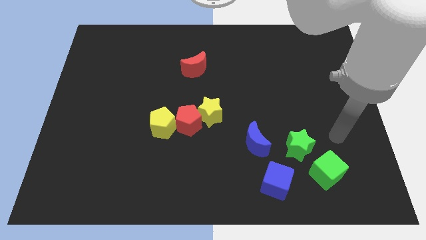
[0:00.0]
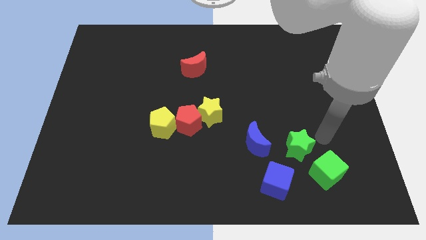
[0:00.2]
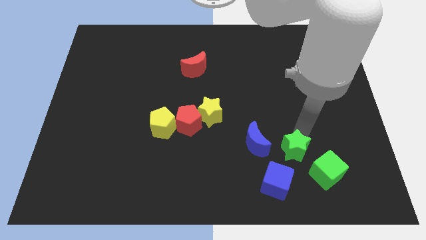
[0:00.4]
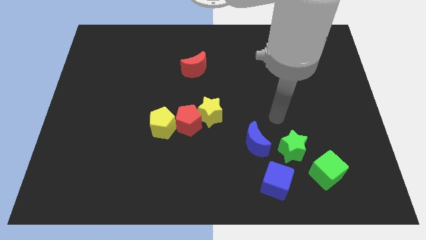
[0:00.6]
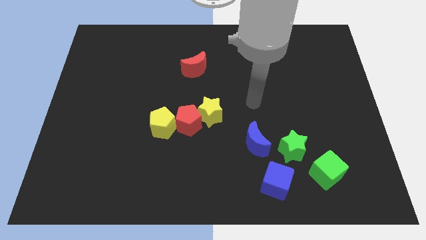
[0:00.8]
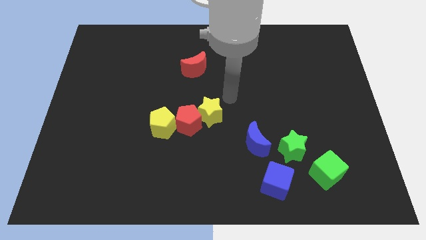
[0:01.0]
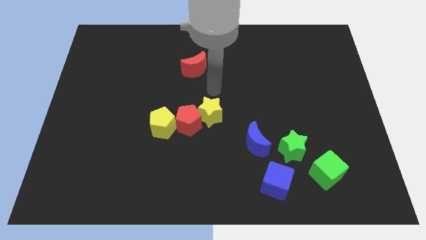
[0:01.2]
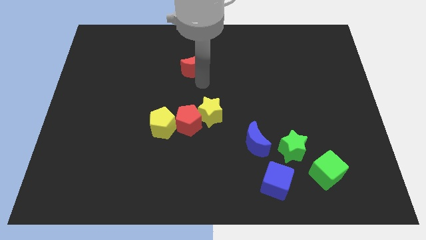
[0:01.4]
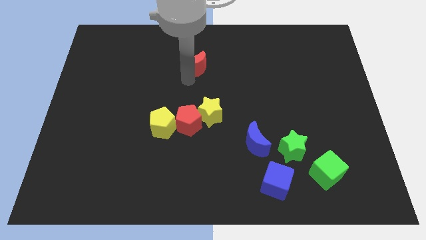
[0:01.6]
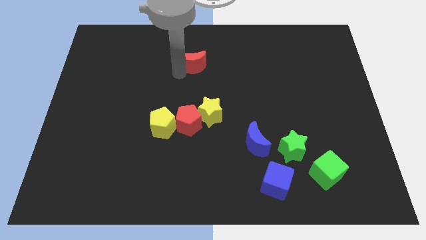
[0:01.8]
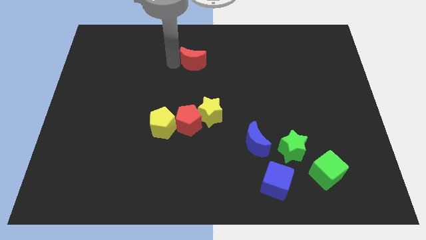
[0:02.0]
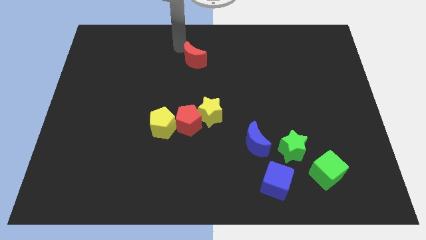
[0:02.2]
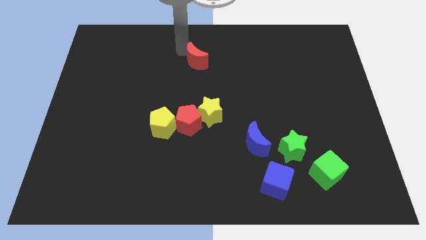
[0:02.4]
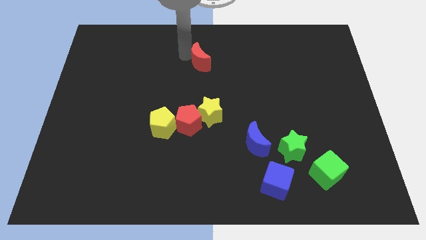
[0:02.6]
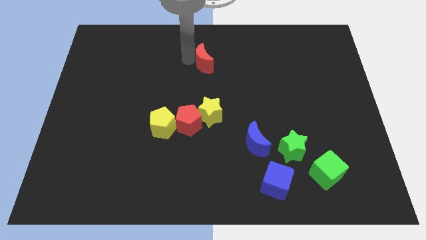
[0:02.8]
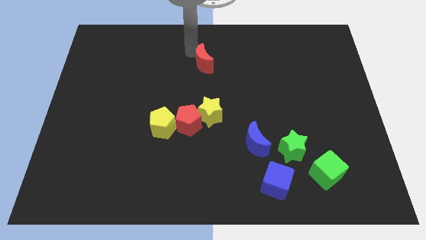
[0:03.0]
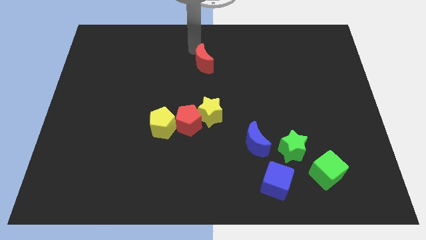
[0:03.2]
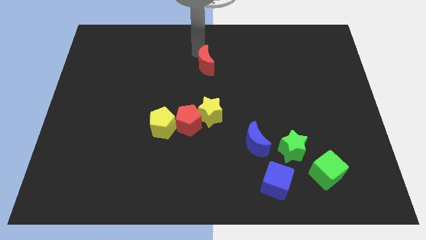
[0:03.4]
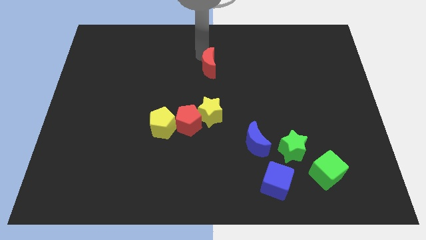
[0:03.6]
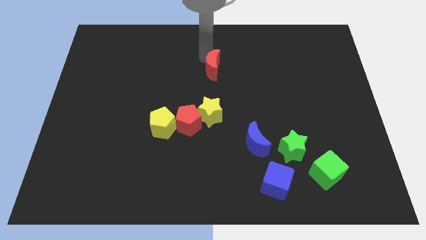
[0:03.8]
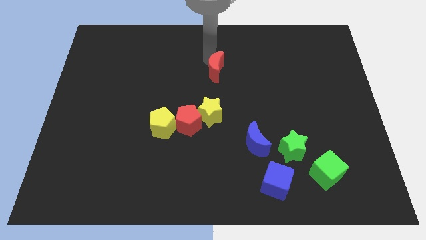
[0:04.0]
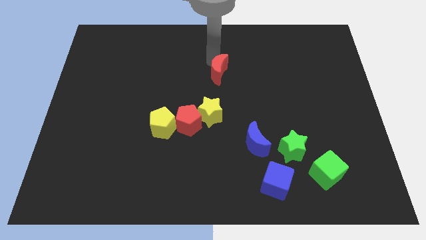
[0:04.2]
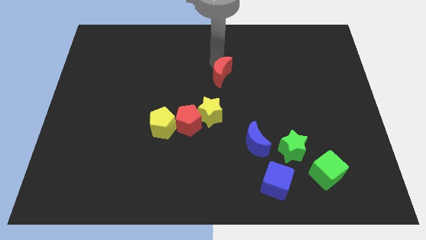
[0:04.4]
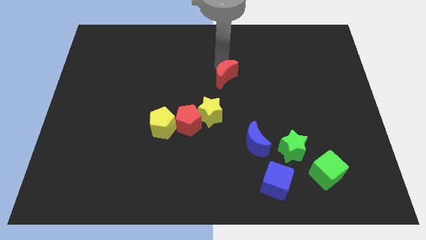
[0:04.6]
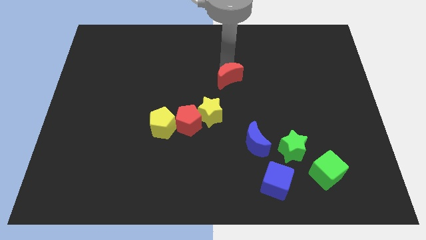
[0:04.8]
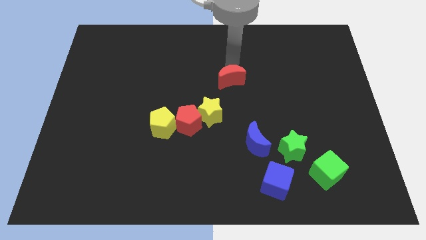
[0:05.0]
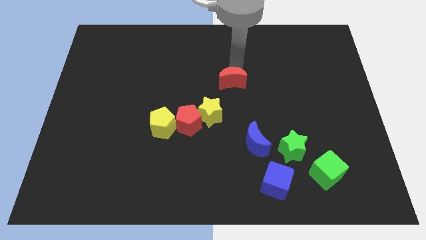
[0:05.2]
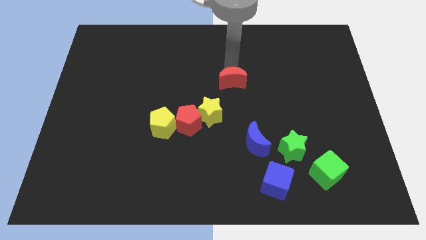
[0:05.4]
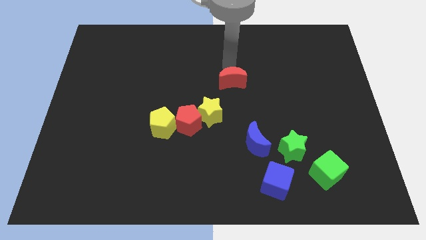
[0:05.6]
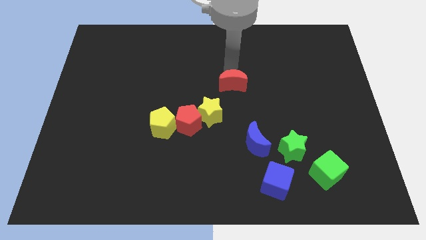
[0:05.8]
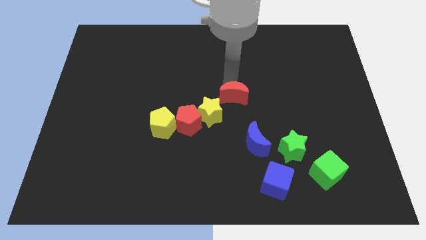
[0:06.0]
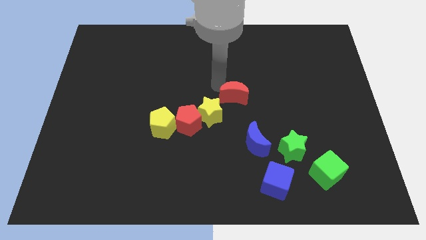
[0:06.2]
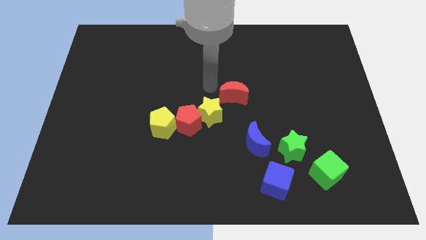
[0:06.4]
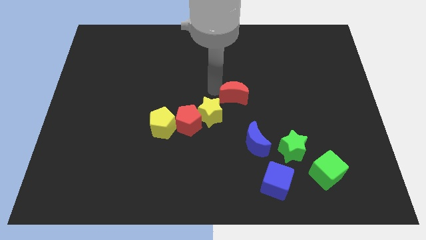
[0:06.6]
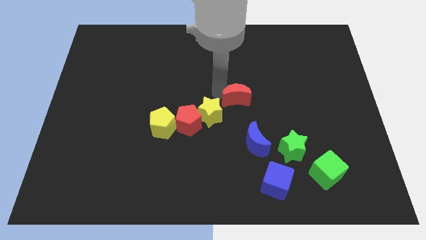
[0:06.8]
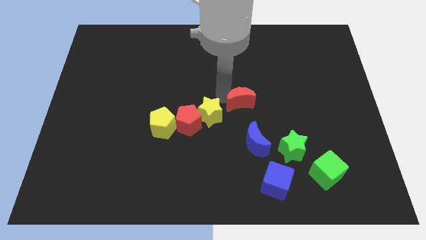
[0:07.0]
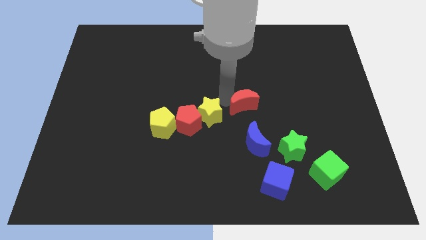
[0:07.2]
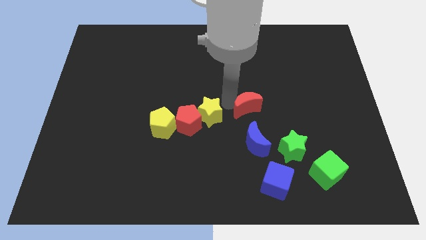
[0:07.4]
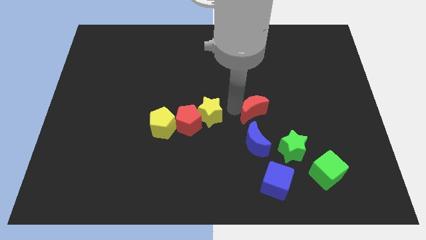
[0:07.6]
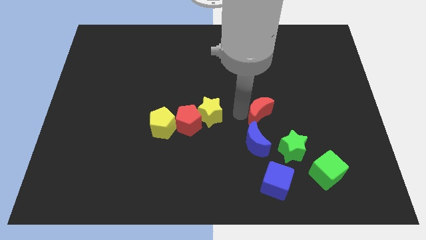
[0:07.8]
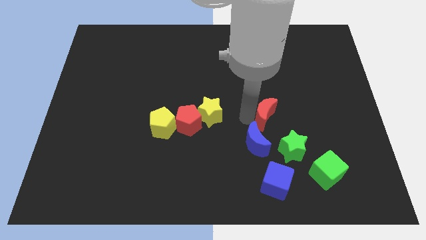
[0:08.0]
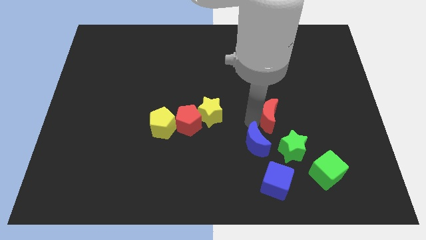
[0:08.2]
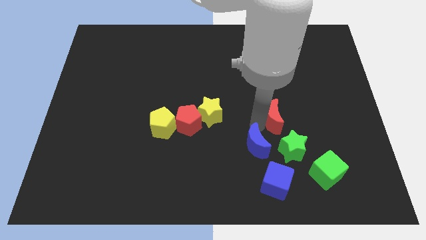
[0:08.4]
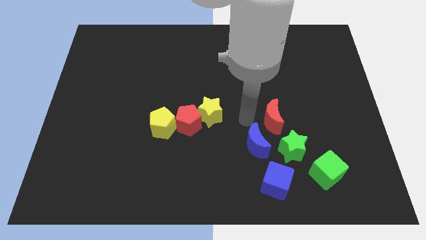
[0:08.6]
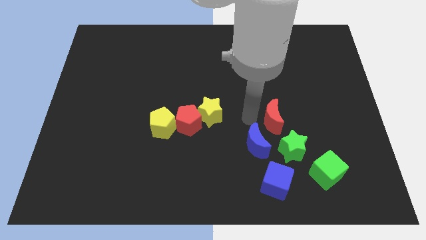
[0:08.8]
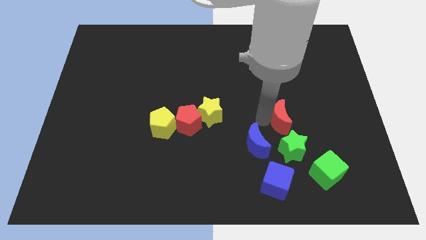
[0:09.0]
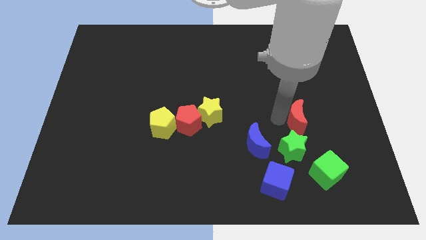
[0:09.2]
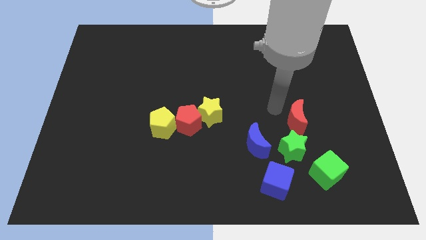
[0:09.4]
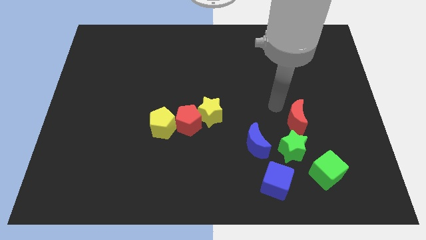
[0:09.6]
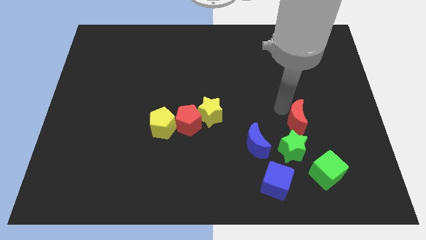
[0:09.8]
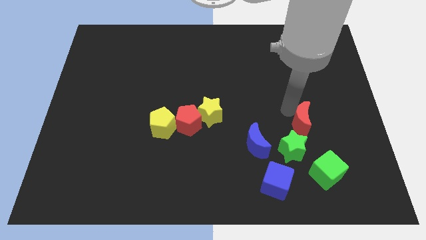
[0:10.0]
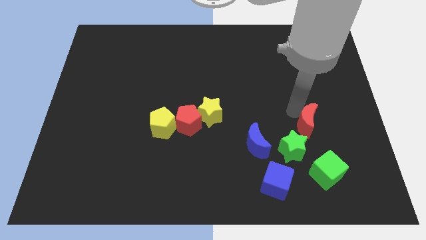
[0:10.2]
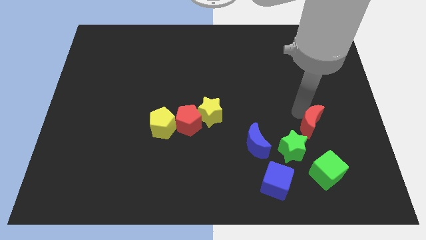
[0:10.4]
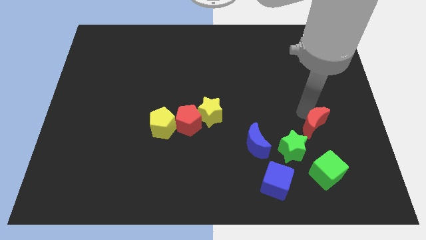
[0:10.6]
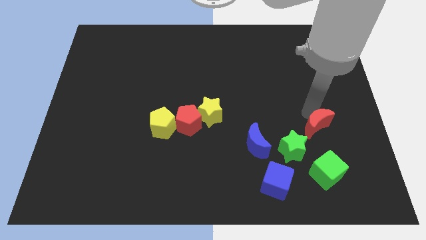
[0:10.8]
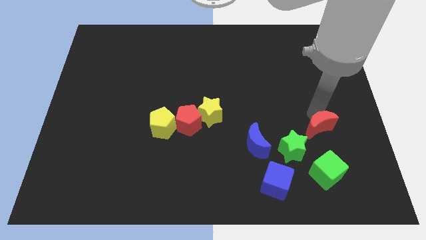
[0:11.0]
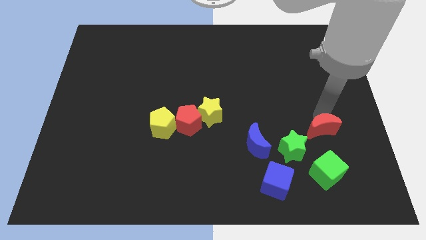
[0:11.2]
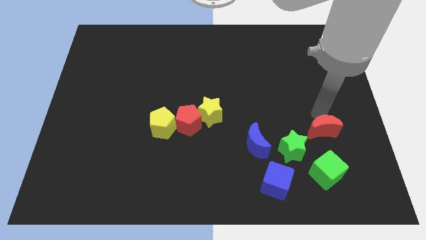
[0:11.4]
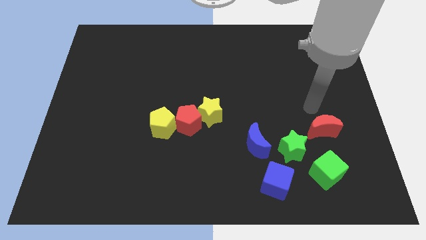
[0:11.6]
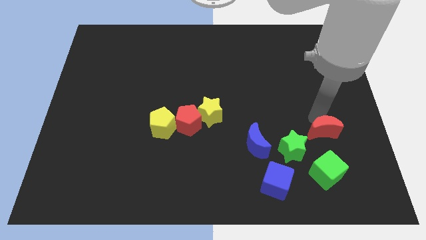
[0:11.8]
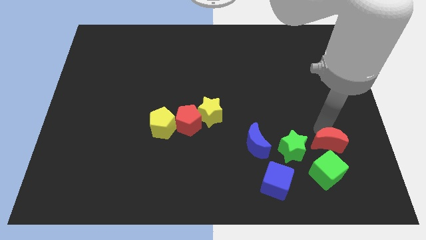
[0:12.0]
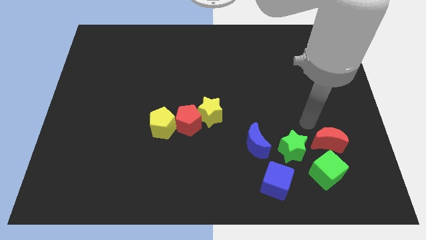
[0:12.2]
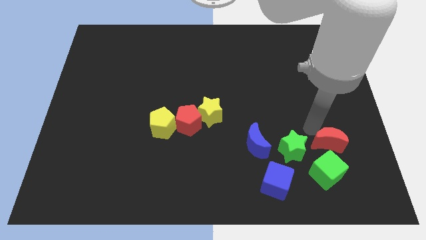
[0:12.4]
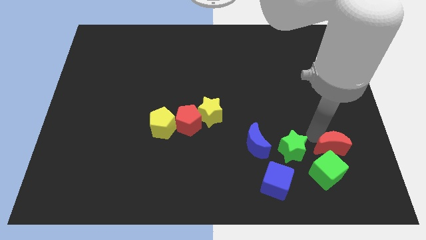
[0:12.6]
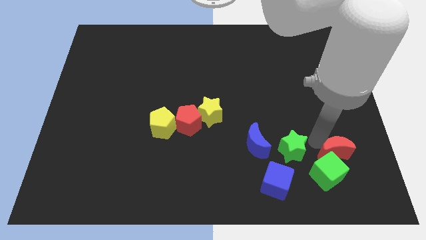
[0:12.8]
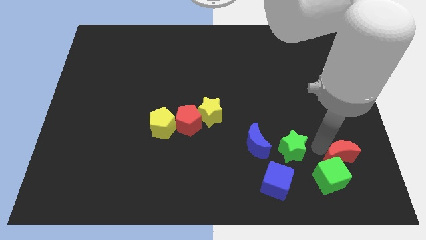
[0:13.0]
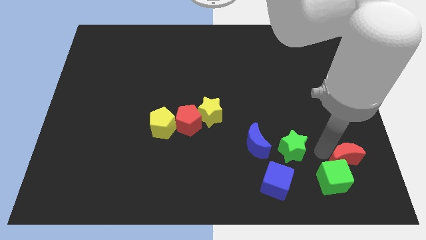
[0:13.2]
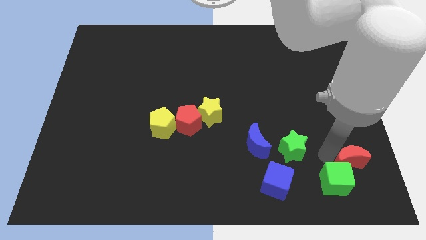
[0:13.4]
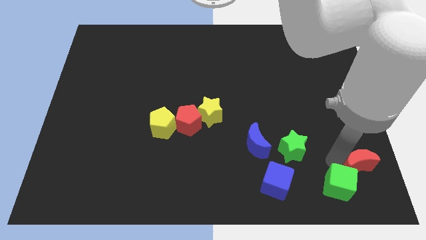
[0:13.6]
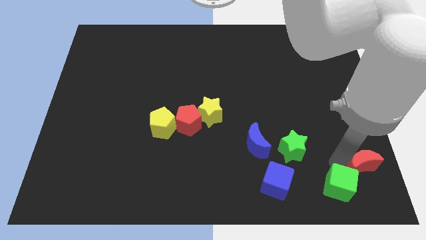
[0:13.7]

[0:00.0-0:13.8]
move the red moon to the bottom right
